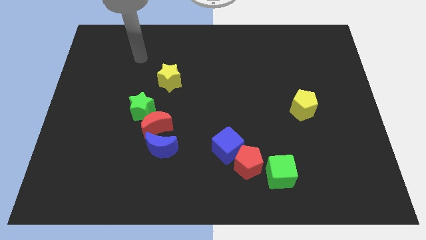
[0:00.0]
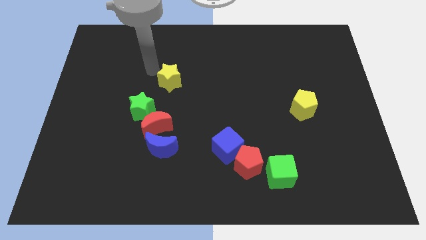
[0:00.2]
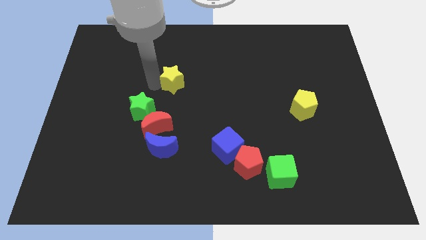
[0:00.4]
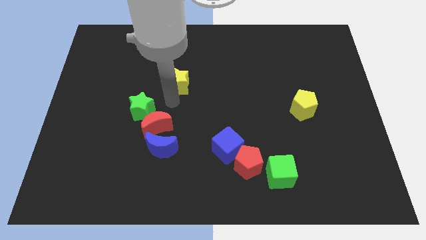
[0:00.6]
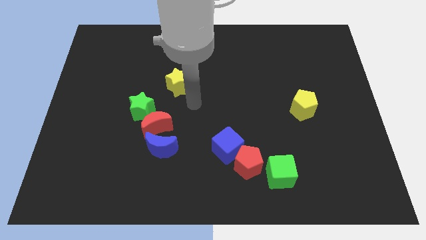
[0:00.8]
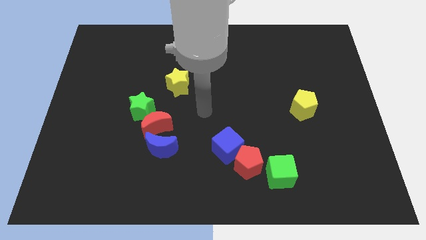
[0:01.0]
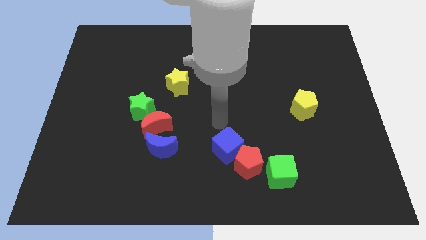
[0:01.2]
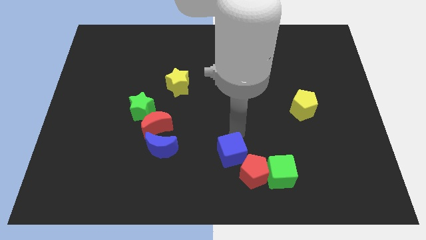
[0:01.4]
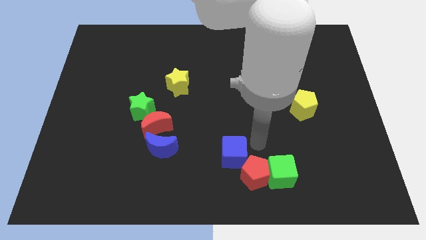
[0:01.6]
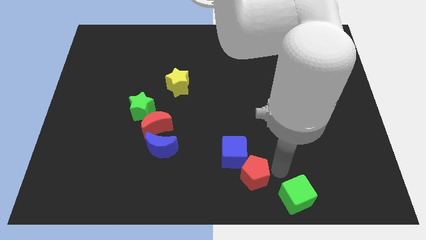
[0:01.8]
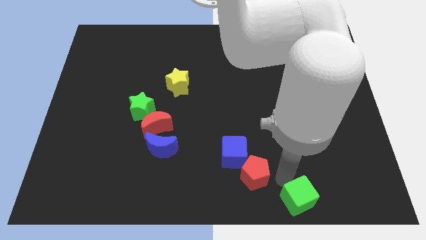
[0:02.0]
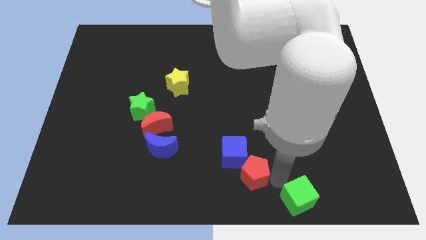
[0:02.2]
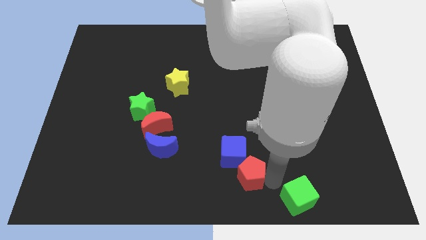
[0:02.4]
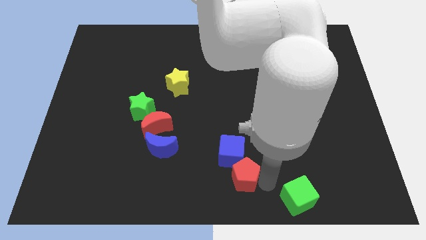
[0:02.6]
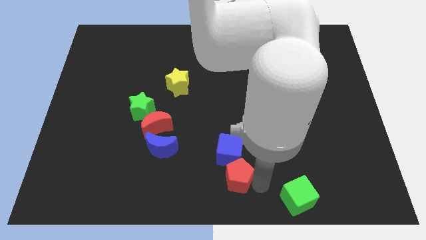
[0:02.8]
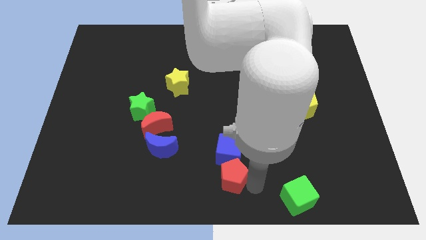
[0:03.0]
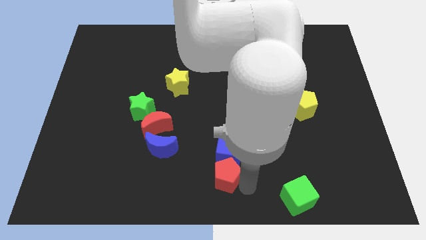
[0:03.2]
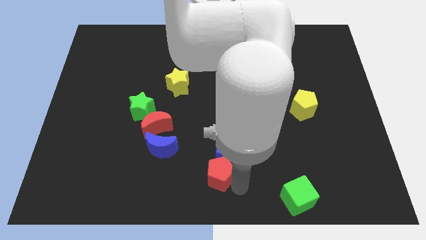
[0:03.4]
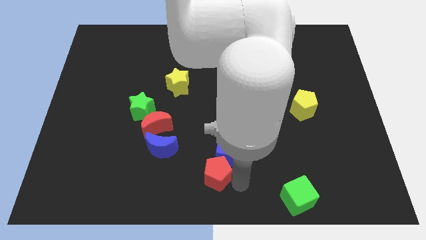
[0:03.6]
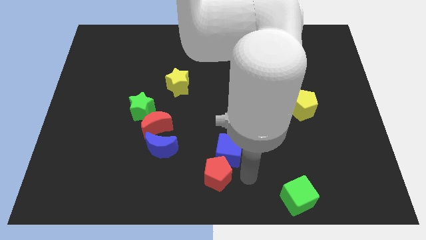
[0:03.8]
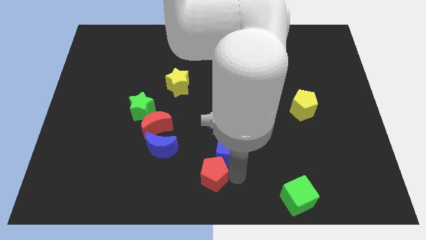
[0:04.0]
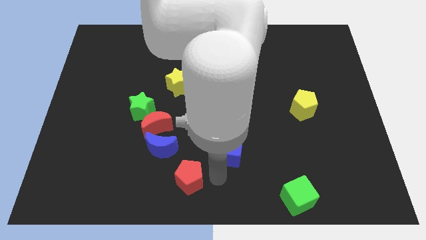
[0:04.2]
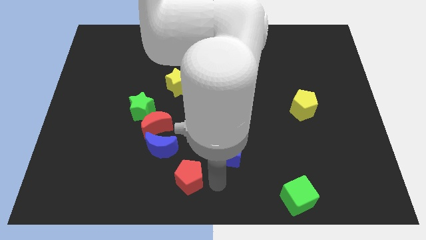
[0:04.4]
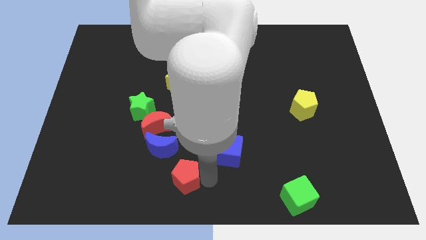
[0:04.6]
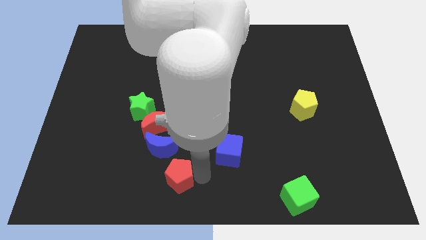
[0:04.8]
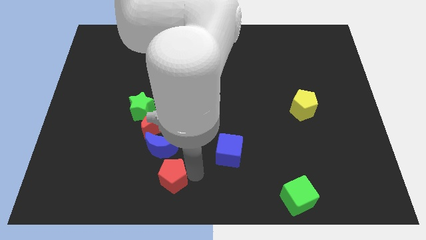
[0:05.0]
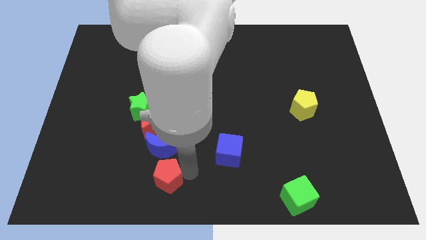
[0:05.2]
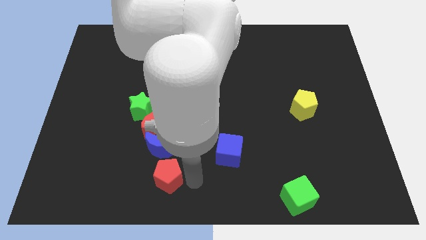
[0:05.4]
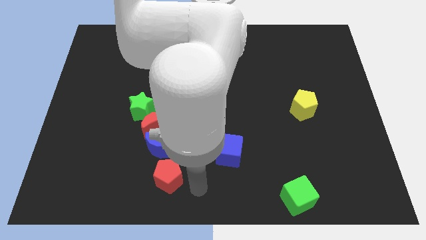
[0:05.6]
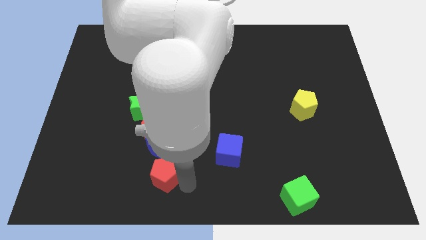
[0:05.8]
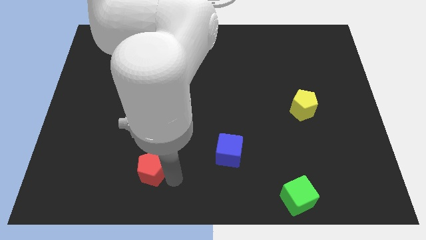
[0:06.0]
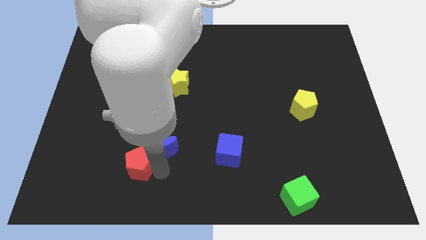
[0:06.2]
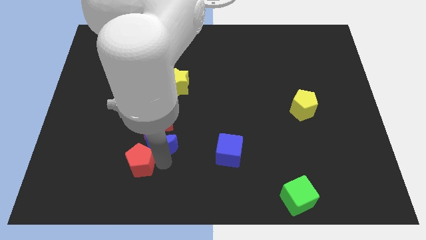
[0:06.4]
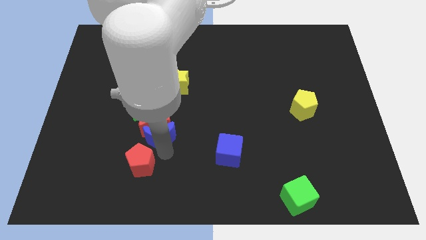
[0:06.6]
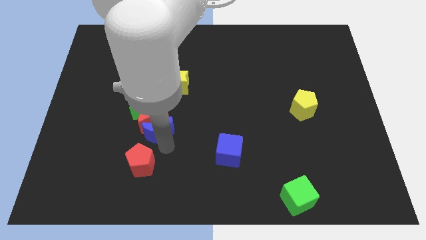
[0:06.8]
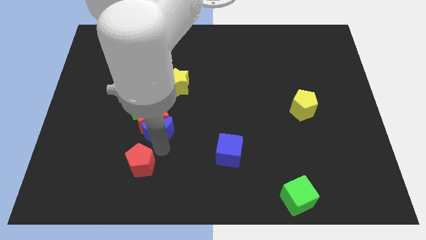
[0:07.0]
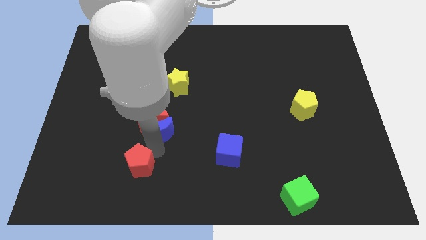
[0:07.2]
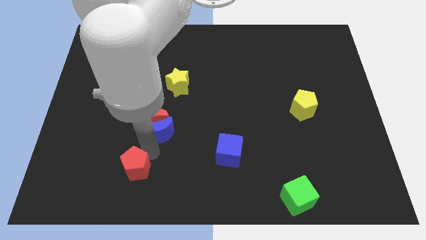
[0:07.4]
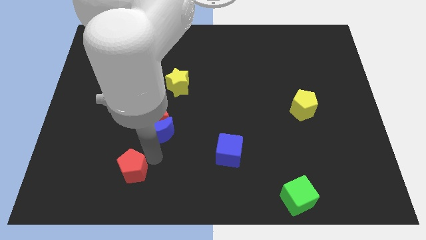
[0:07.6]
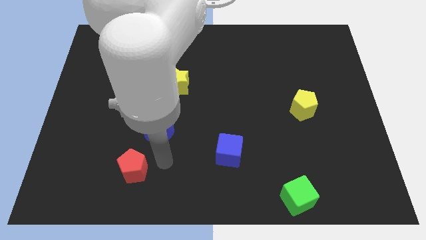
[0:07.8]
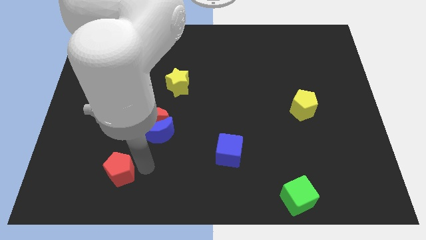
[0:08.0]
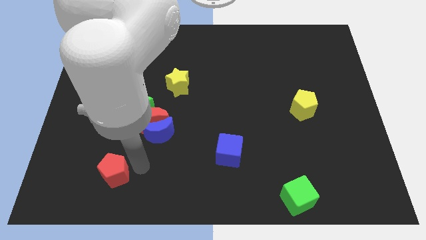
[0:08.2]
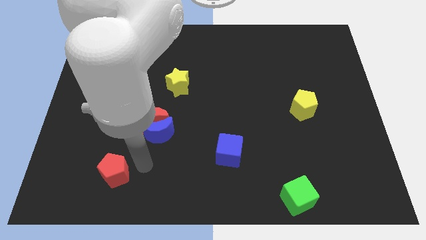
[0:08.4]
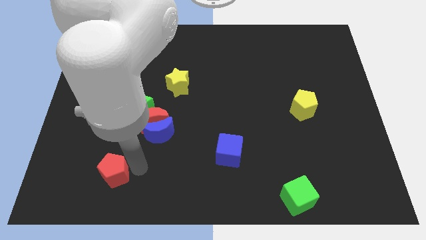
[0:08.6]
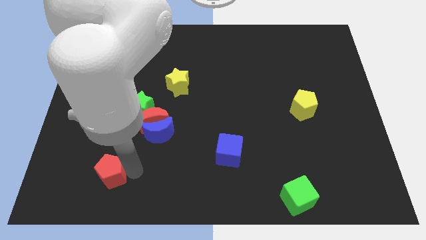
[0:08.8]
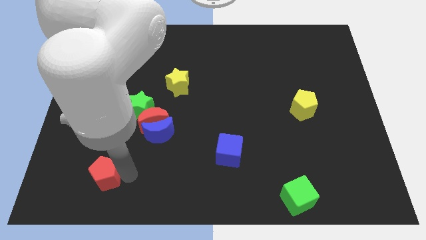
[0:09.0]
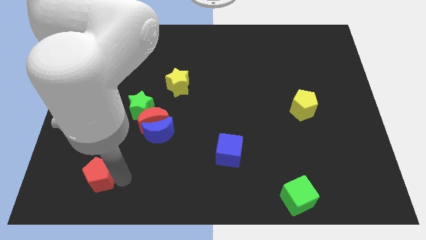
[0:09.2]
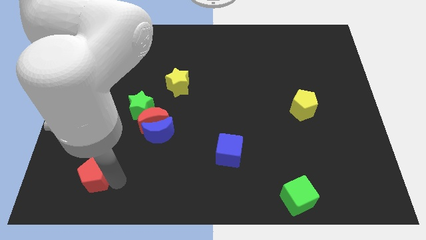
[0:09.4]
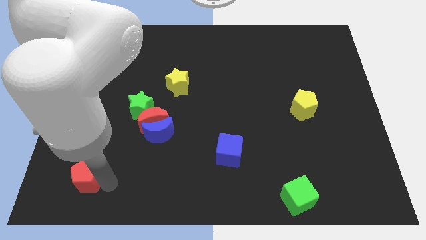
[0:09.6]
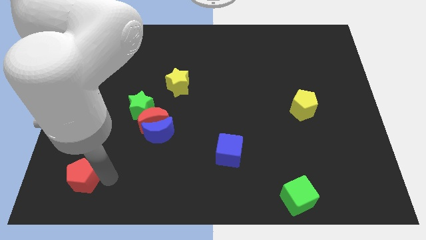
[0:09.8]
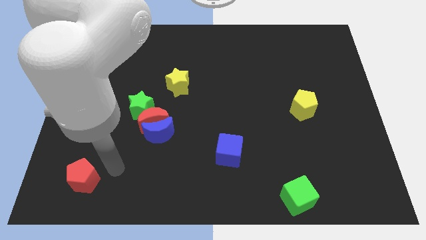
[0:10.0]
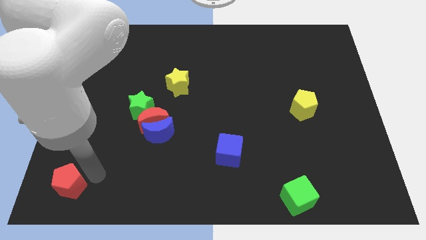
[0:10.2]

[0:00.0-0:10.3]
put the red pentagon to the lower left corner

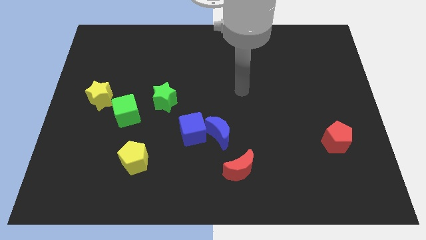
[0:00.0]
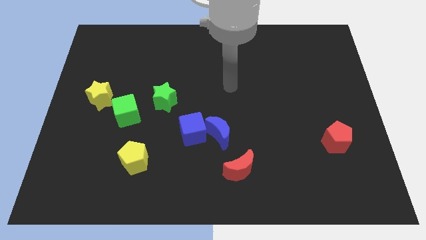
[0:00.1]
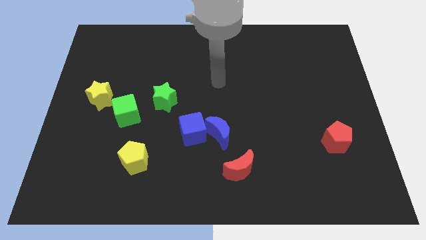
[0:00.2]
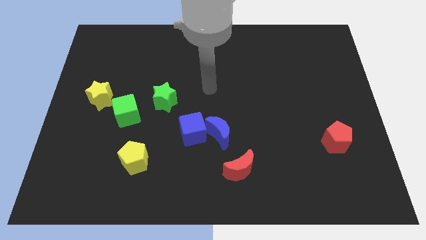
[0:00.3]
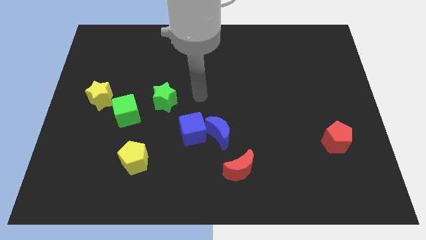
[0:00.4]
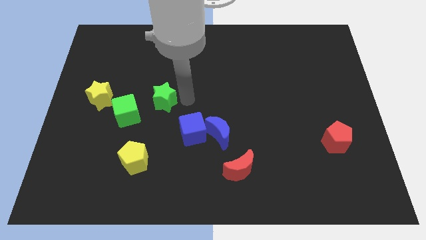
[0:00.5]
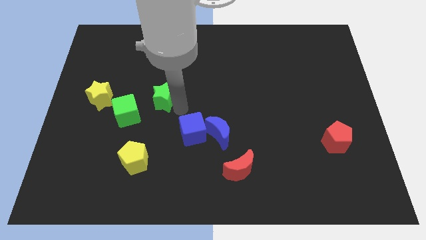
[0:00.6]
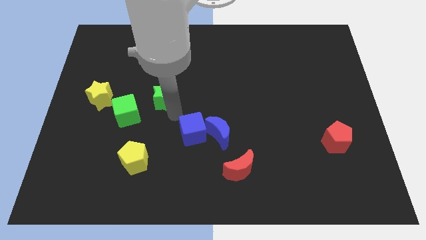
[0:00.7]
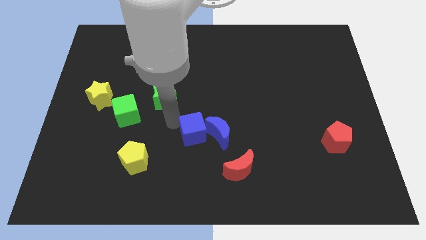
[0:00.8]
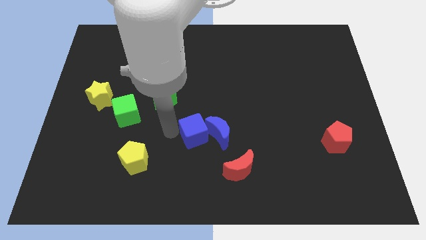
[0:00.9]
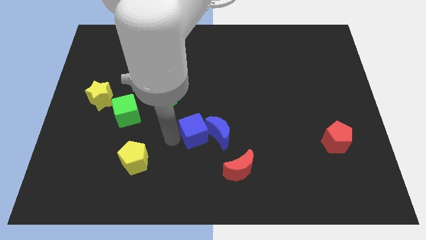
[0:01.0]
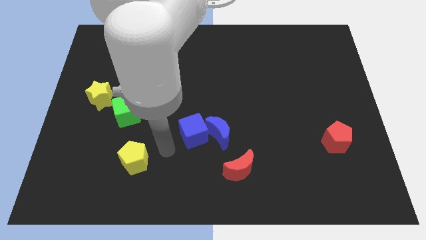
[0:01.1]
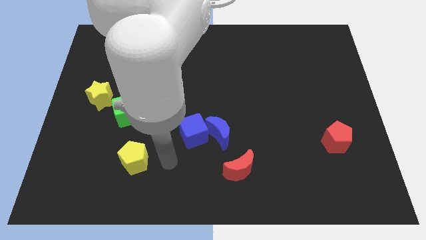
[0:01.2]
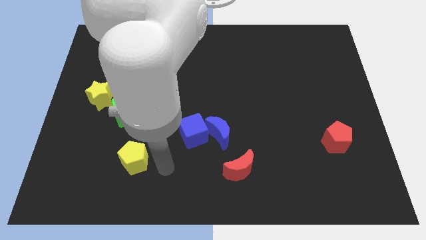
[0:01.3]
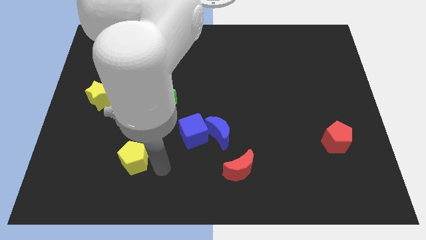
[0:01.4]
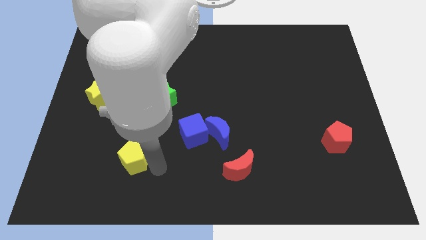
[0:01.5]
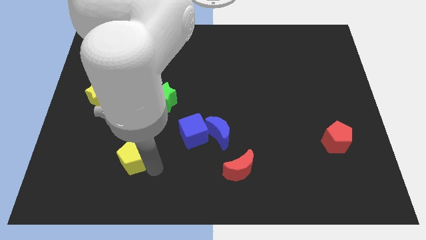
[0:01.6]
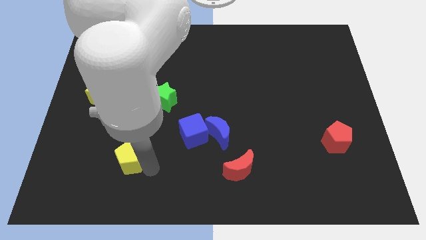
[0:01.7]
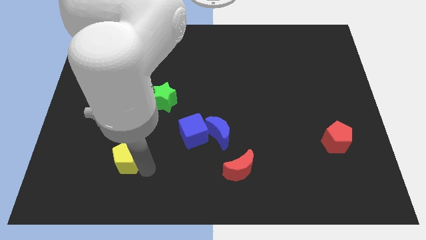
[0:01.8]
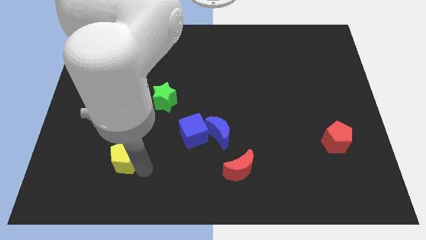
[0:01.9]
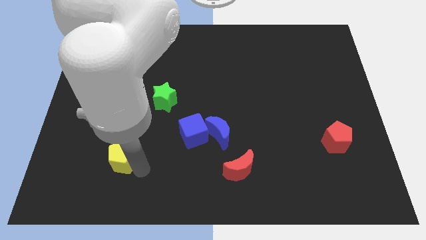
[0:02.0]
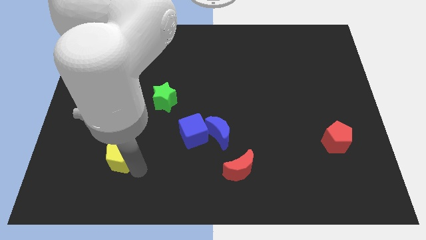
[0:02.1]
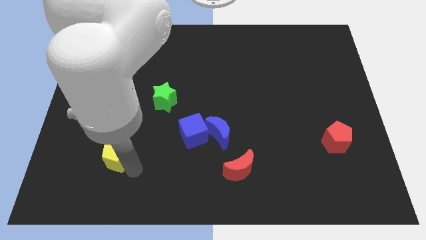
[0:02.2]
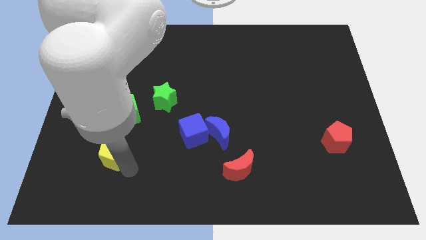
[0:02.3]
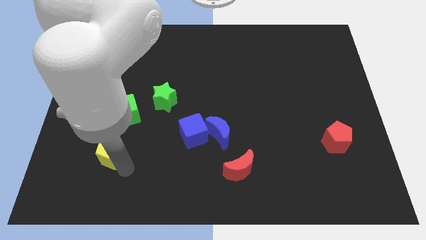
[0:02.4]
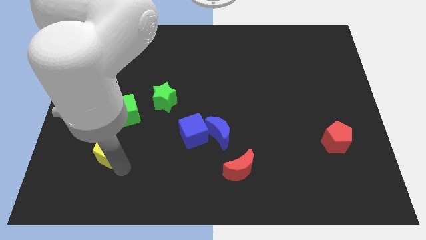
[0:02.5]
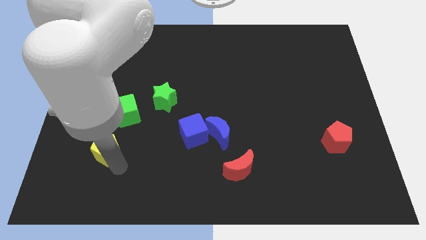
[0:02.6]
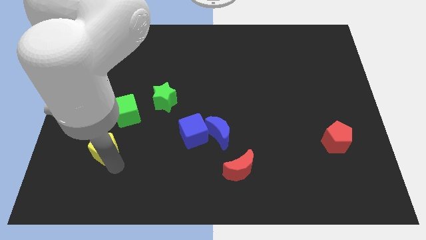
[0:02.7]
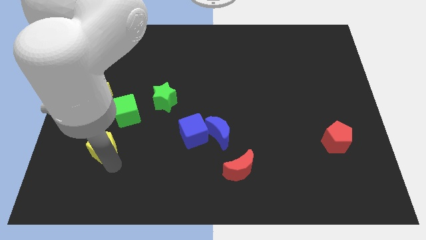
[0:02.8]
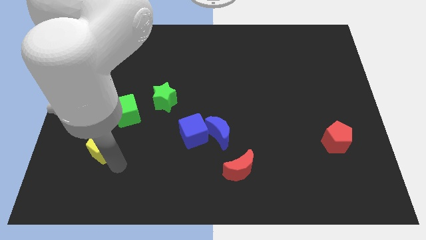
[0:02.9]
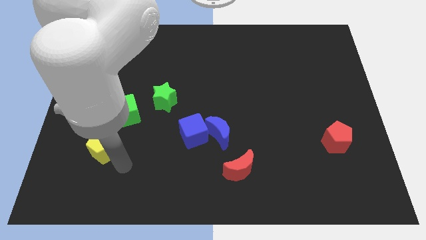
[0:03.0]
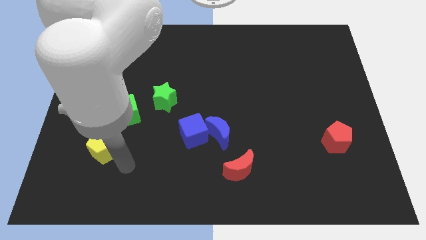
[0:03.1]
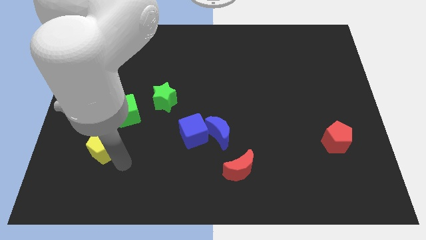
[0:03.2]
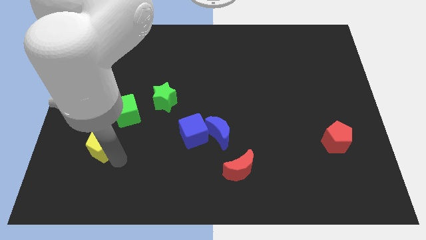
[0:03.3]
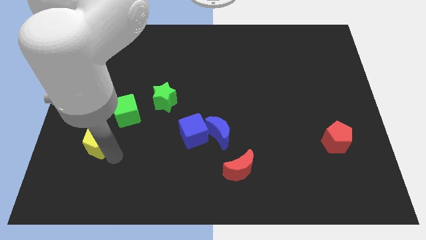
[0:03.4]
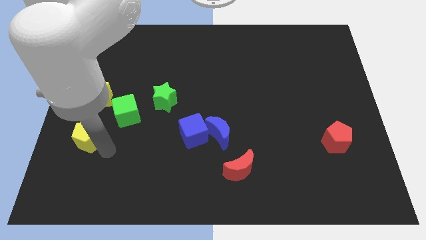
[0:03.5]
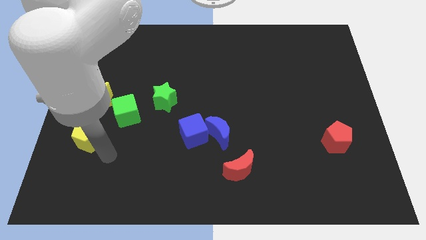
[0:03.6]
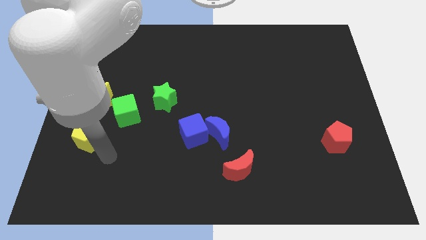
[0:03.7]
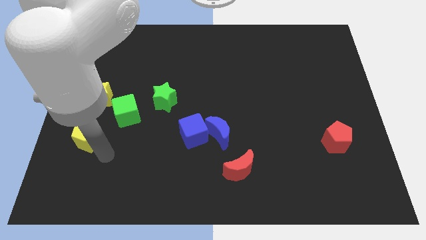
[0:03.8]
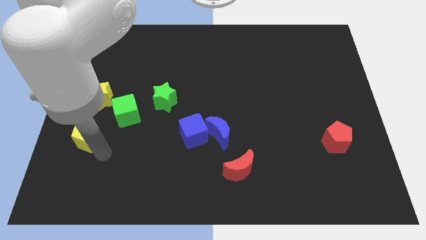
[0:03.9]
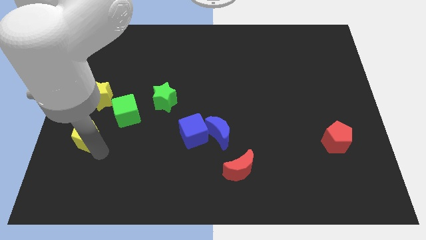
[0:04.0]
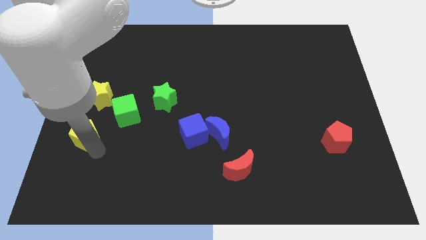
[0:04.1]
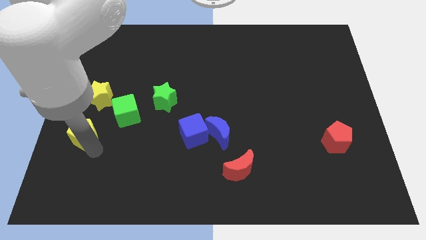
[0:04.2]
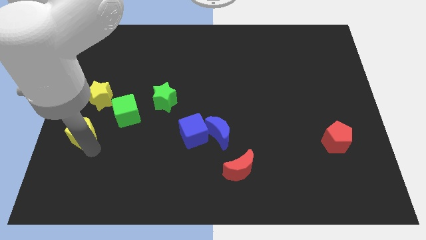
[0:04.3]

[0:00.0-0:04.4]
push the yellow pentagon to the left side of the board
